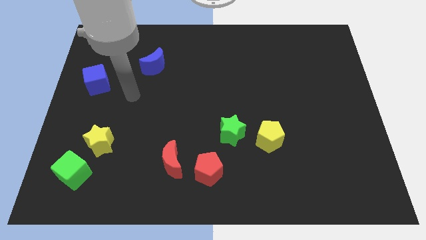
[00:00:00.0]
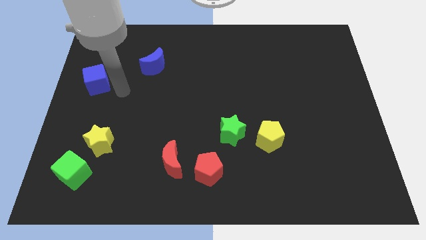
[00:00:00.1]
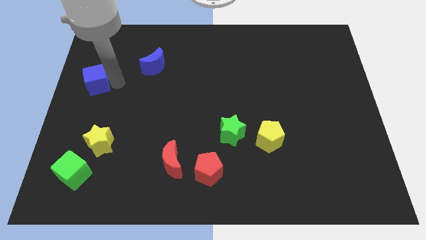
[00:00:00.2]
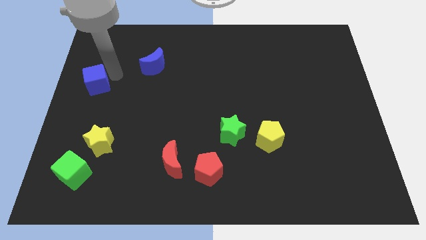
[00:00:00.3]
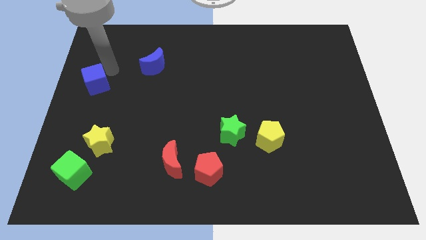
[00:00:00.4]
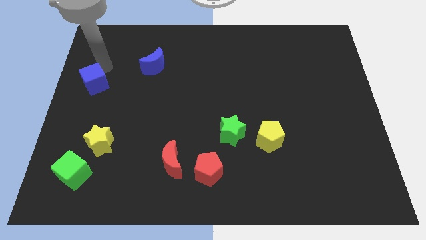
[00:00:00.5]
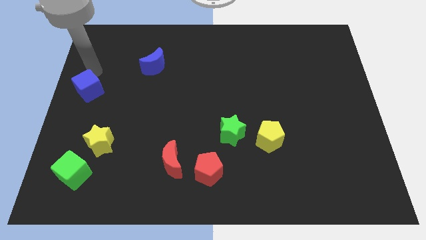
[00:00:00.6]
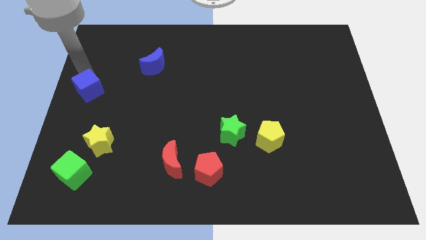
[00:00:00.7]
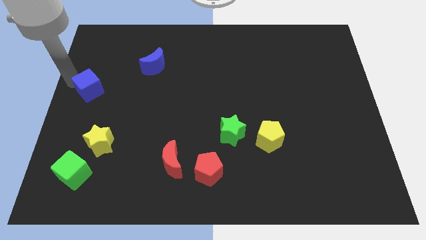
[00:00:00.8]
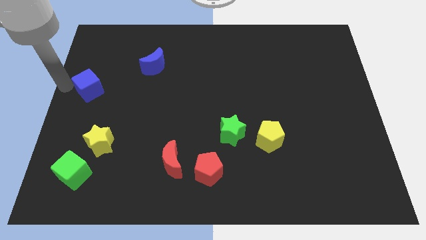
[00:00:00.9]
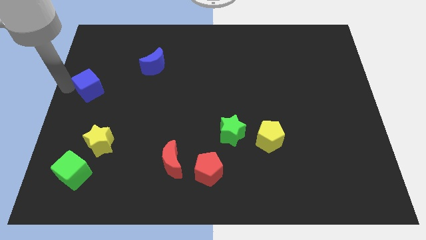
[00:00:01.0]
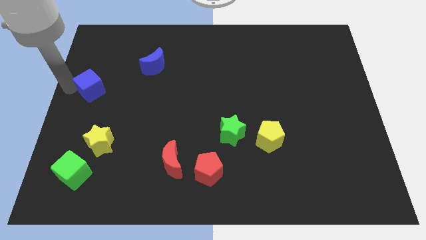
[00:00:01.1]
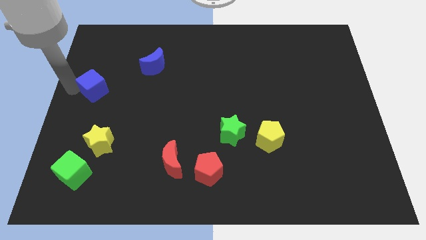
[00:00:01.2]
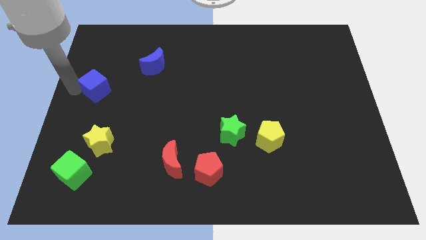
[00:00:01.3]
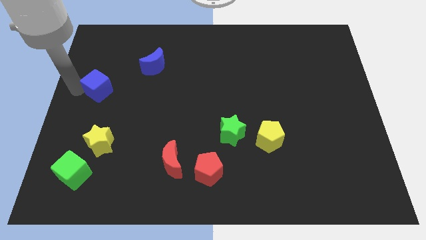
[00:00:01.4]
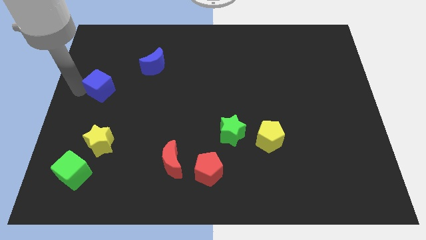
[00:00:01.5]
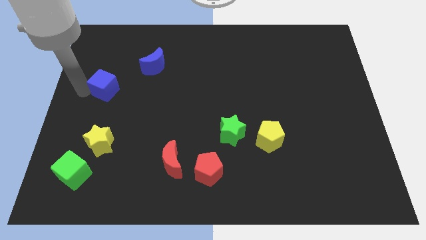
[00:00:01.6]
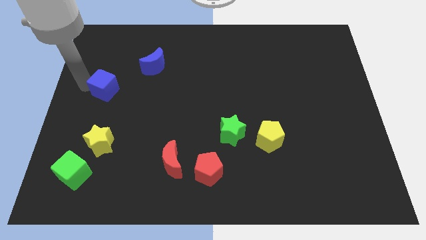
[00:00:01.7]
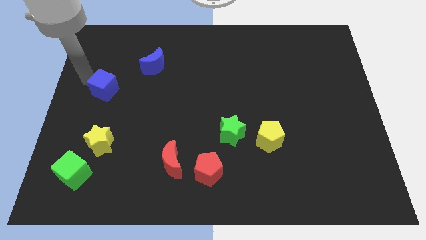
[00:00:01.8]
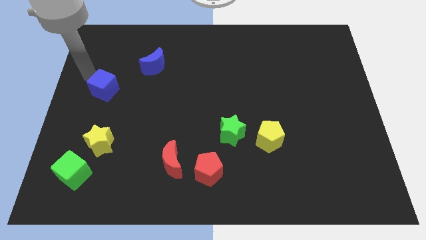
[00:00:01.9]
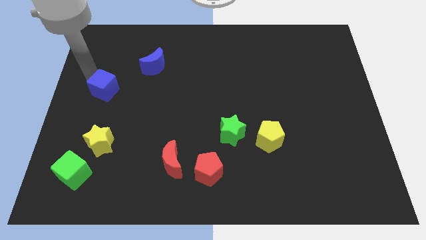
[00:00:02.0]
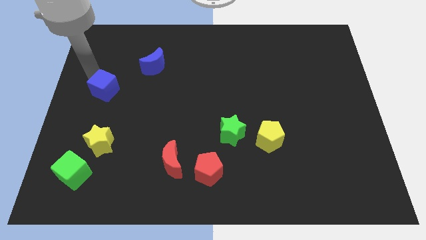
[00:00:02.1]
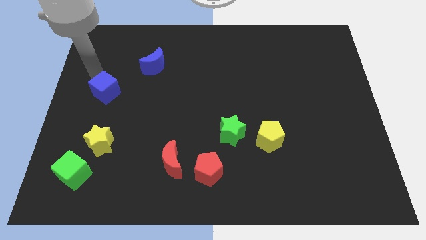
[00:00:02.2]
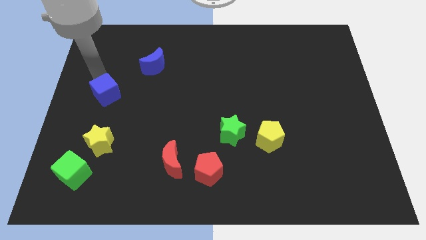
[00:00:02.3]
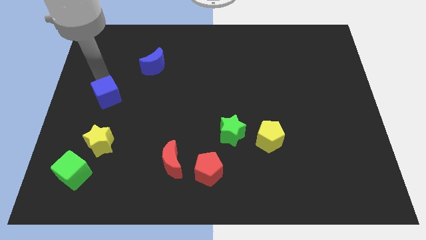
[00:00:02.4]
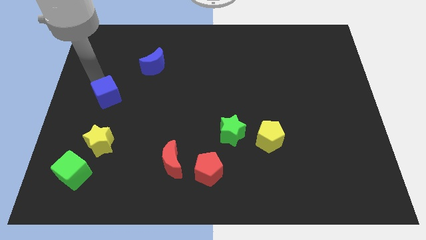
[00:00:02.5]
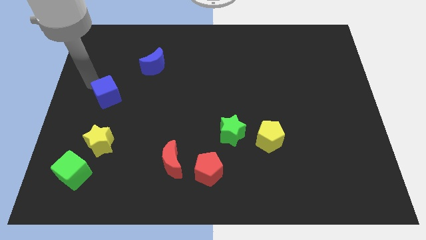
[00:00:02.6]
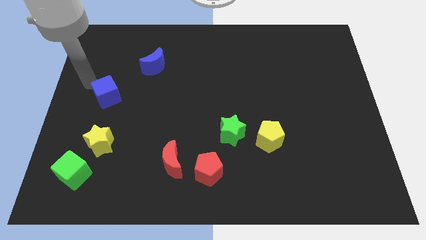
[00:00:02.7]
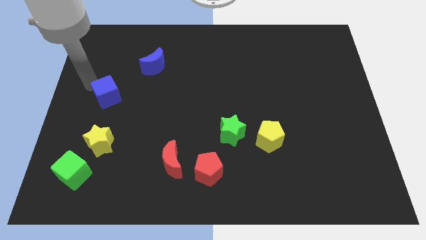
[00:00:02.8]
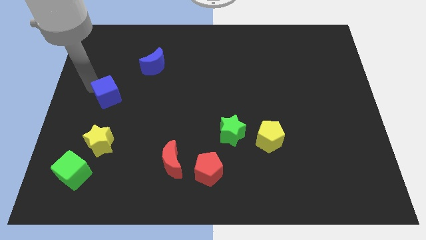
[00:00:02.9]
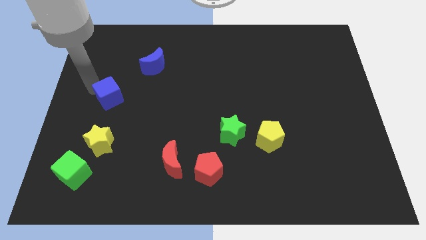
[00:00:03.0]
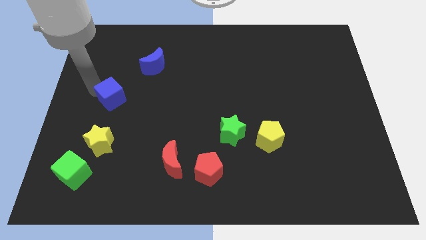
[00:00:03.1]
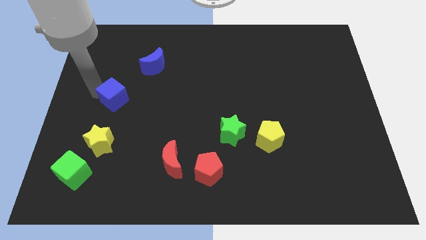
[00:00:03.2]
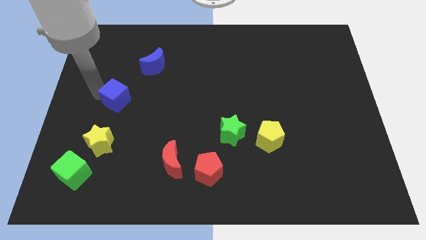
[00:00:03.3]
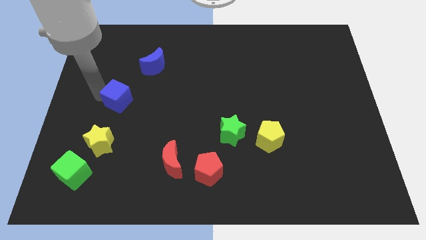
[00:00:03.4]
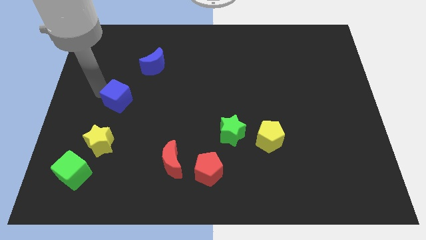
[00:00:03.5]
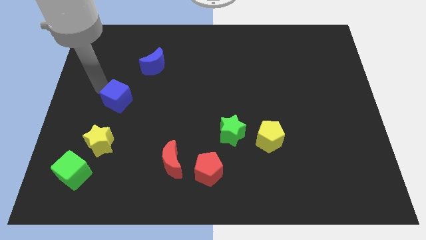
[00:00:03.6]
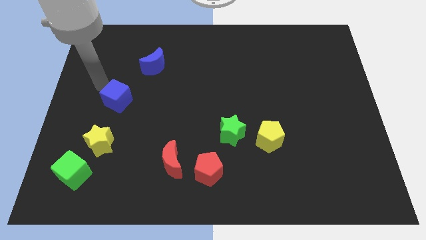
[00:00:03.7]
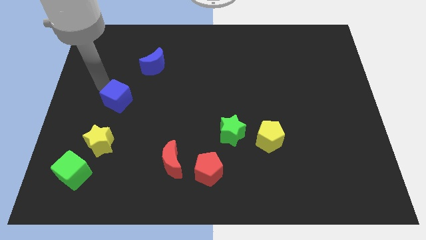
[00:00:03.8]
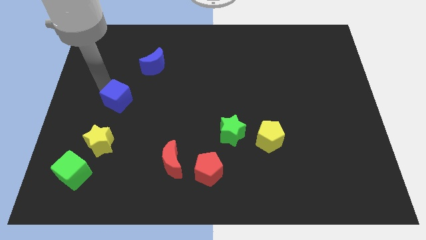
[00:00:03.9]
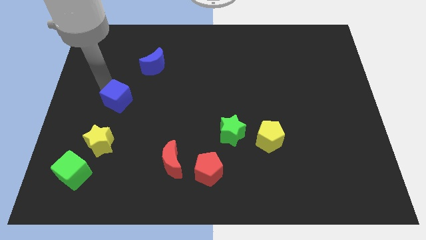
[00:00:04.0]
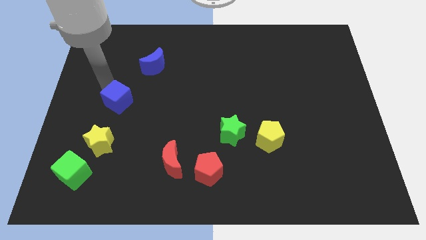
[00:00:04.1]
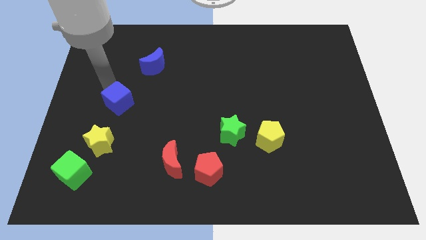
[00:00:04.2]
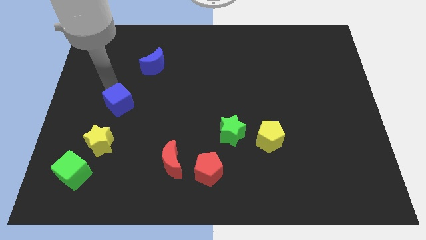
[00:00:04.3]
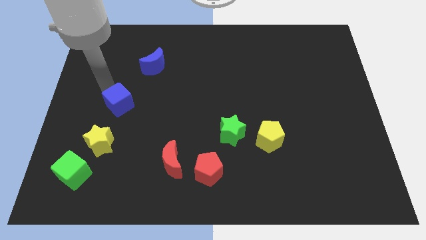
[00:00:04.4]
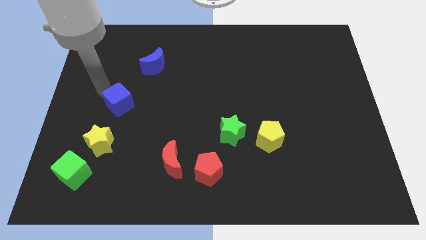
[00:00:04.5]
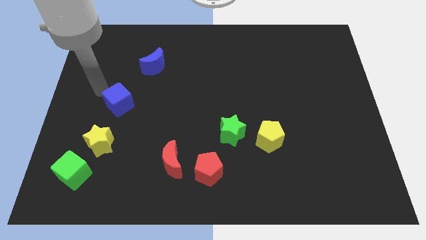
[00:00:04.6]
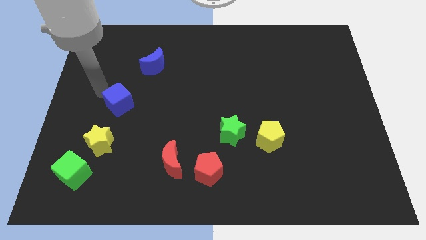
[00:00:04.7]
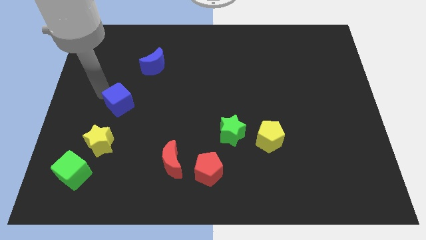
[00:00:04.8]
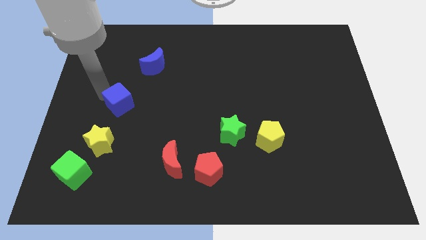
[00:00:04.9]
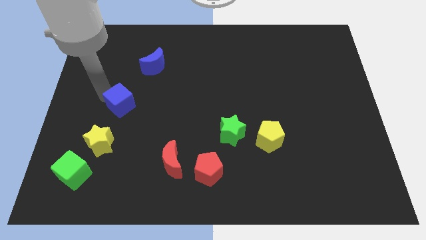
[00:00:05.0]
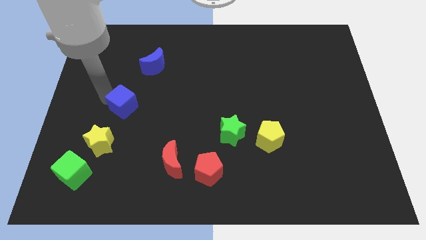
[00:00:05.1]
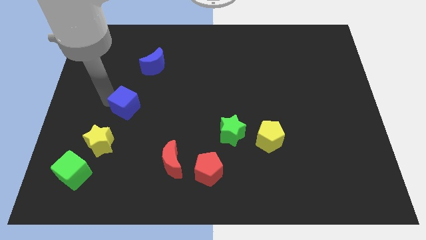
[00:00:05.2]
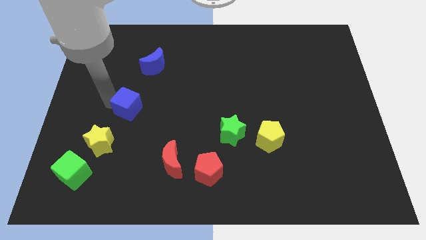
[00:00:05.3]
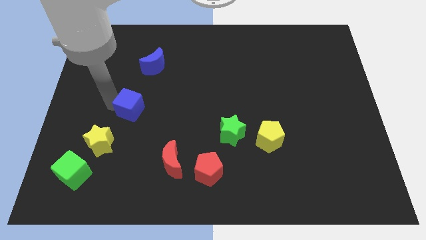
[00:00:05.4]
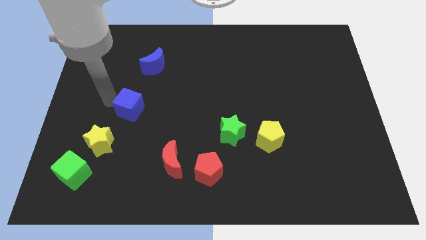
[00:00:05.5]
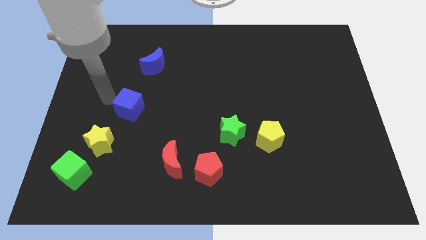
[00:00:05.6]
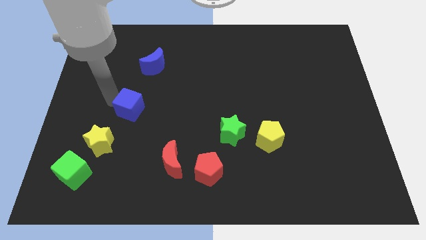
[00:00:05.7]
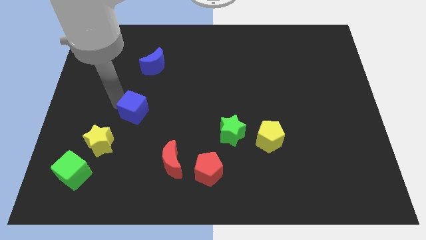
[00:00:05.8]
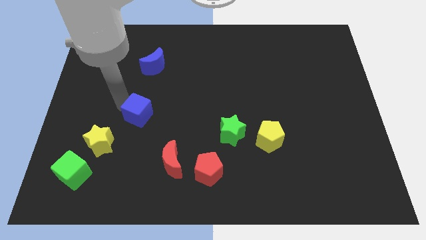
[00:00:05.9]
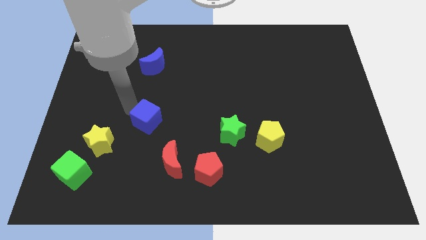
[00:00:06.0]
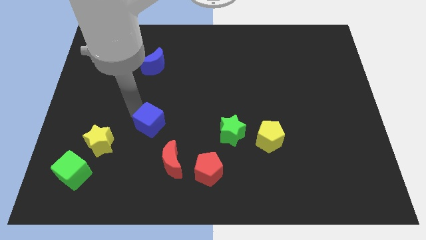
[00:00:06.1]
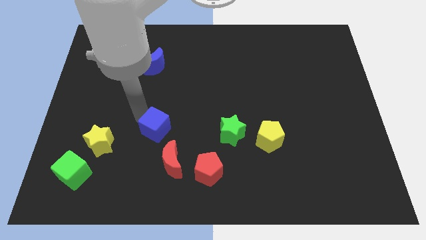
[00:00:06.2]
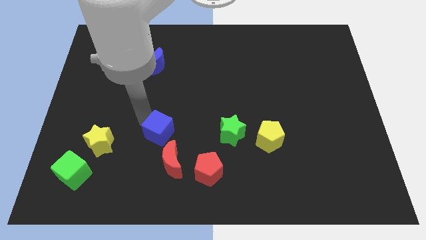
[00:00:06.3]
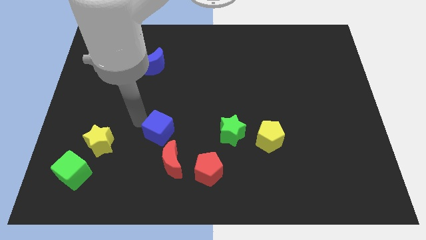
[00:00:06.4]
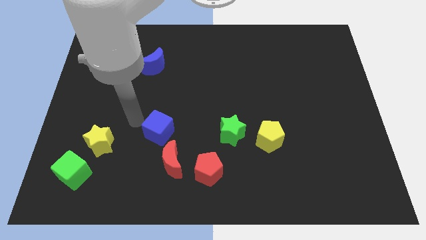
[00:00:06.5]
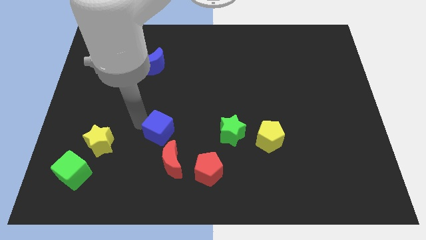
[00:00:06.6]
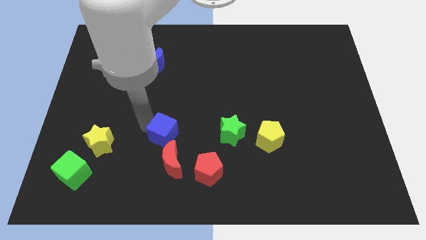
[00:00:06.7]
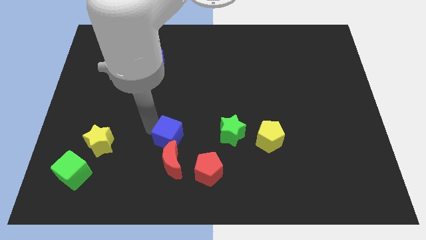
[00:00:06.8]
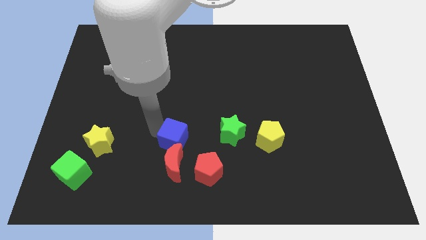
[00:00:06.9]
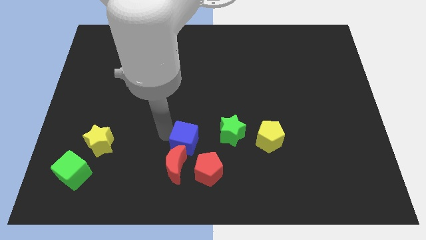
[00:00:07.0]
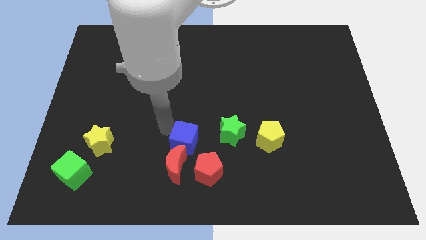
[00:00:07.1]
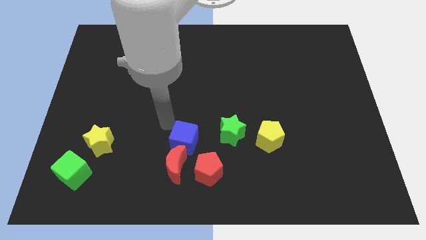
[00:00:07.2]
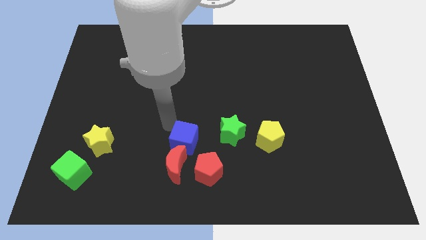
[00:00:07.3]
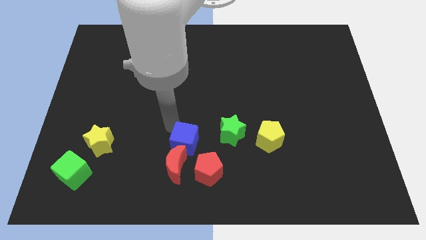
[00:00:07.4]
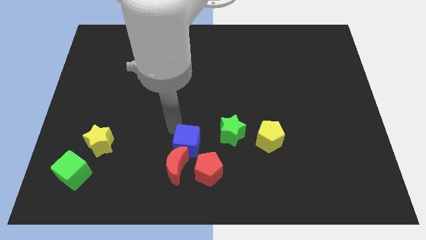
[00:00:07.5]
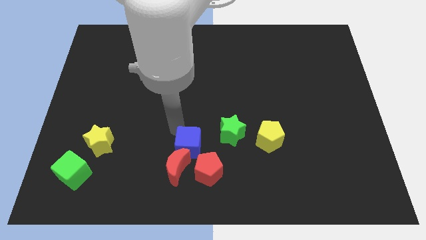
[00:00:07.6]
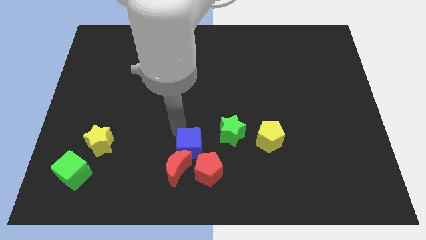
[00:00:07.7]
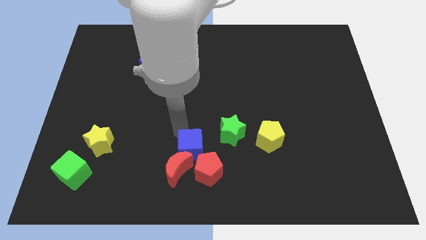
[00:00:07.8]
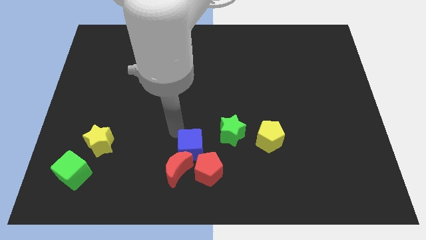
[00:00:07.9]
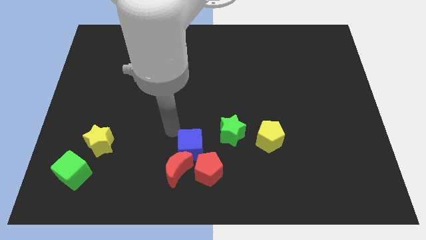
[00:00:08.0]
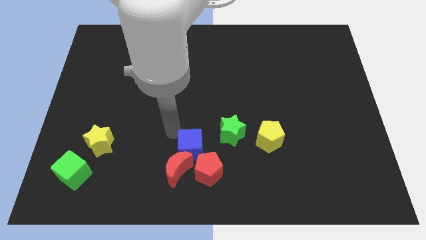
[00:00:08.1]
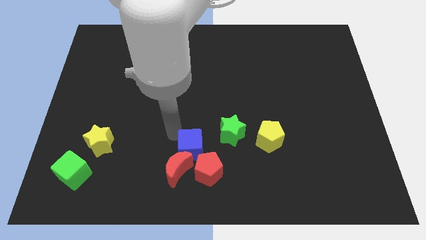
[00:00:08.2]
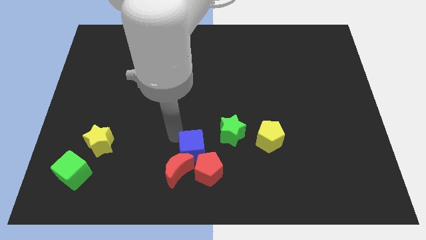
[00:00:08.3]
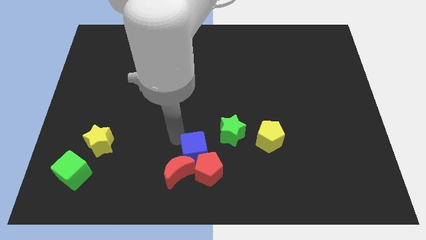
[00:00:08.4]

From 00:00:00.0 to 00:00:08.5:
push the blue cube next to the red pentagon
